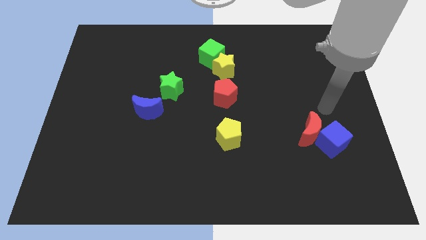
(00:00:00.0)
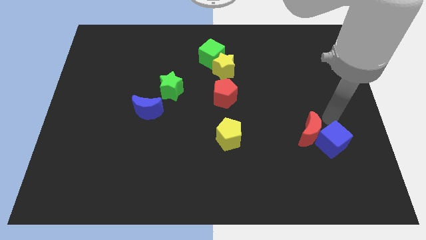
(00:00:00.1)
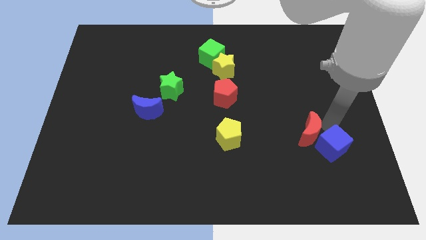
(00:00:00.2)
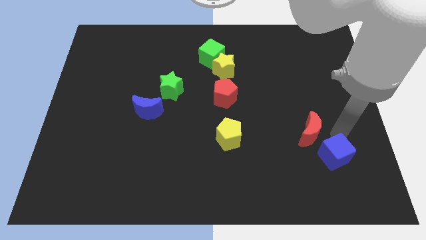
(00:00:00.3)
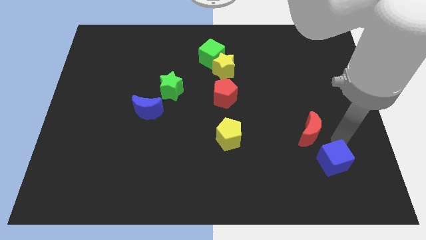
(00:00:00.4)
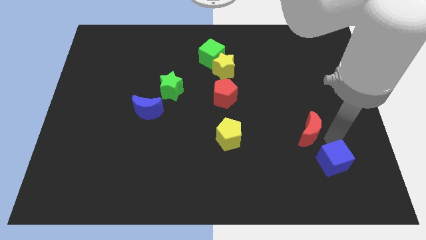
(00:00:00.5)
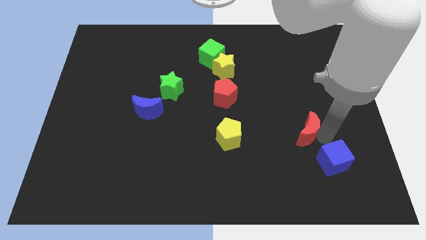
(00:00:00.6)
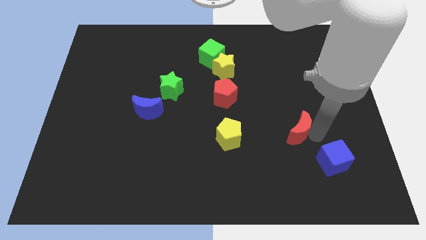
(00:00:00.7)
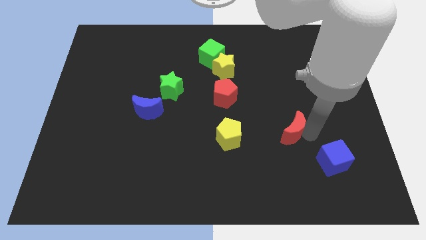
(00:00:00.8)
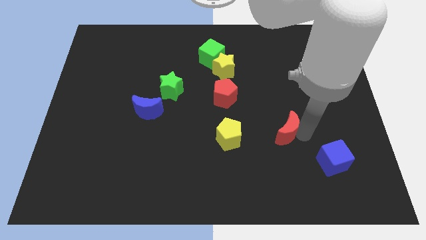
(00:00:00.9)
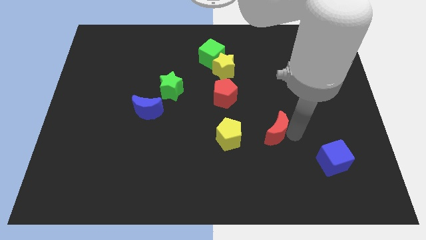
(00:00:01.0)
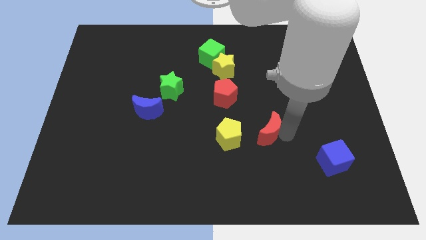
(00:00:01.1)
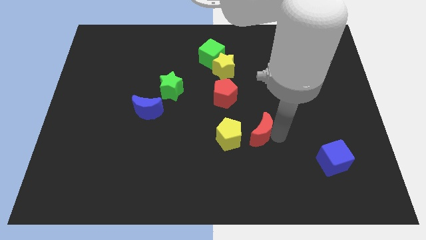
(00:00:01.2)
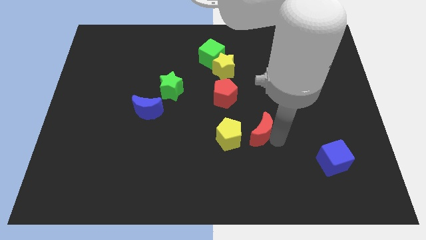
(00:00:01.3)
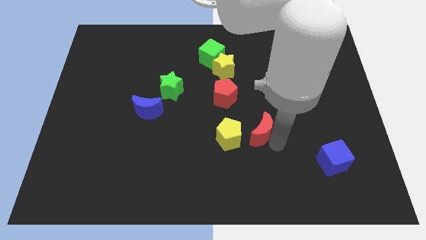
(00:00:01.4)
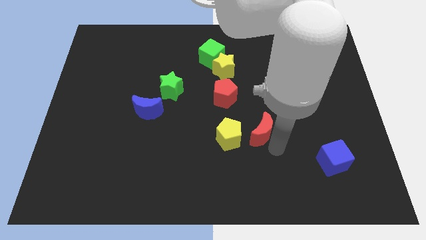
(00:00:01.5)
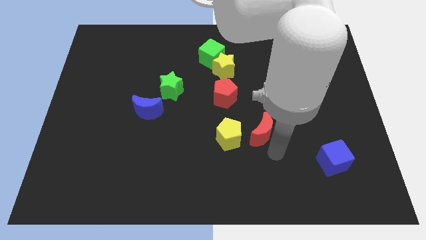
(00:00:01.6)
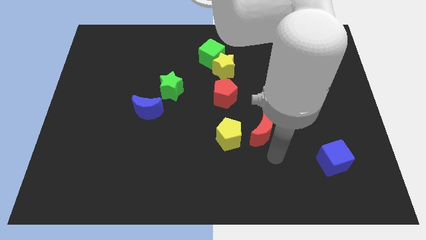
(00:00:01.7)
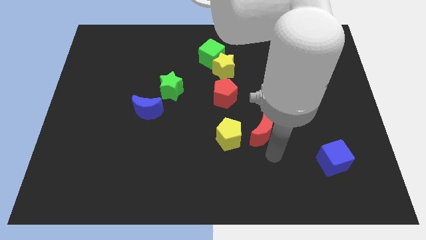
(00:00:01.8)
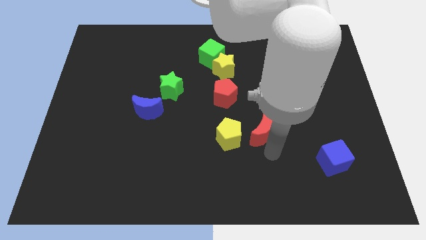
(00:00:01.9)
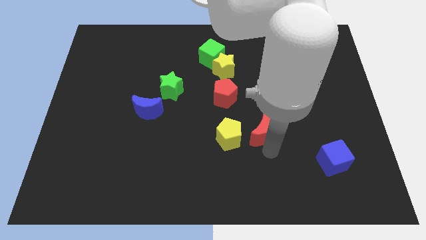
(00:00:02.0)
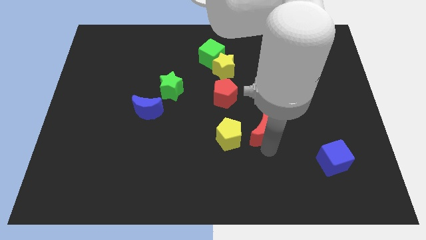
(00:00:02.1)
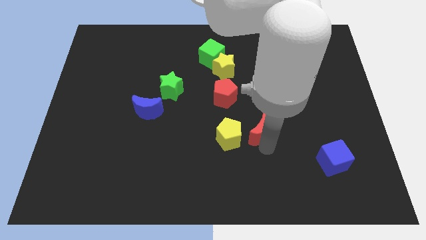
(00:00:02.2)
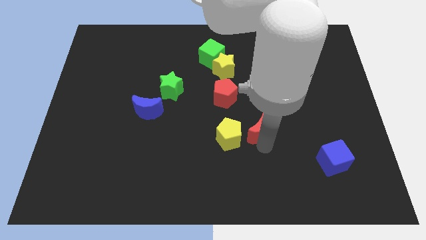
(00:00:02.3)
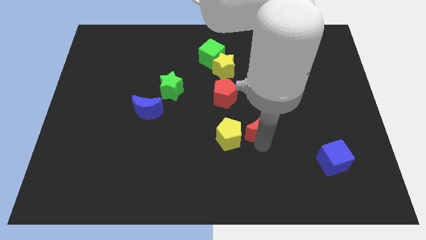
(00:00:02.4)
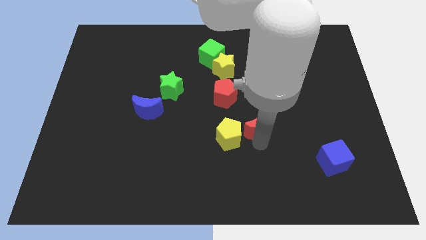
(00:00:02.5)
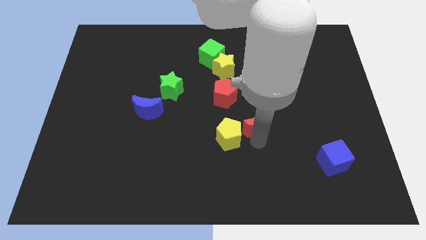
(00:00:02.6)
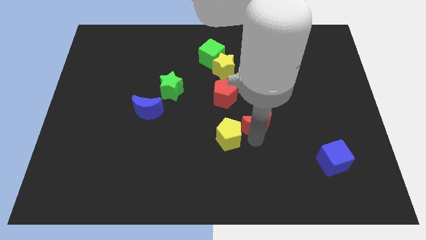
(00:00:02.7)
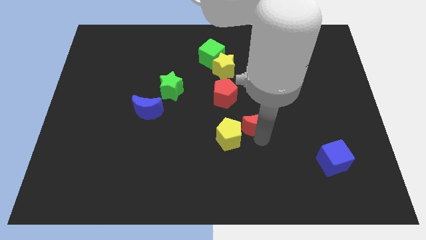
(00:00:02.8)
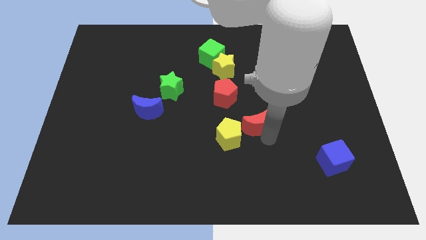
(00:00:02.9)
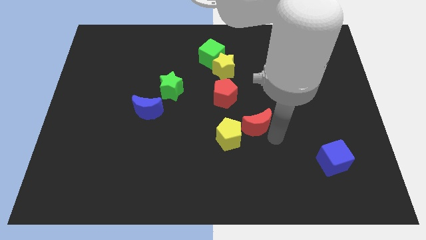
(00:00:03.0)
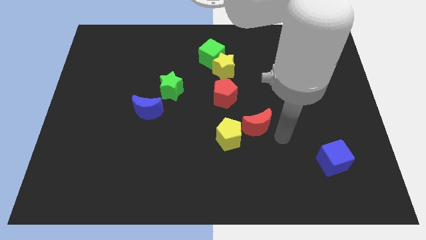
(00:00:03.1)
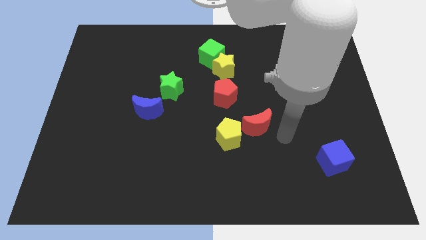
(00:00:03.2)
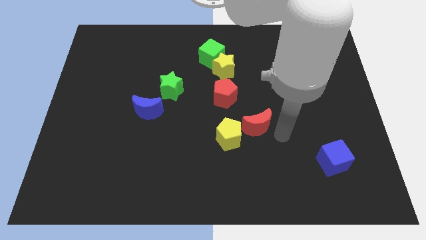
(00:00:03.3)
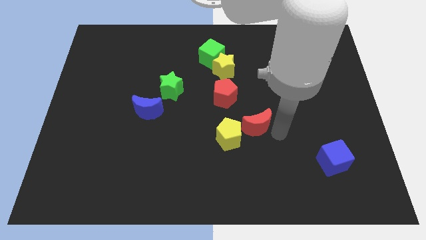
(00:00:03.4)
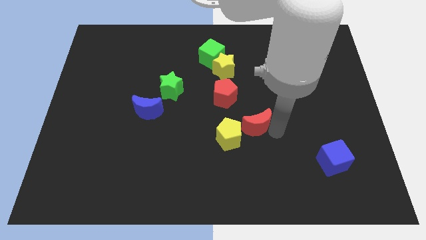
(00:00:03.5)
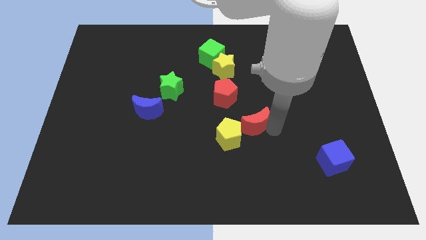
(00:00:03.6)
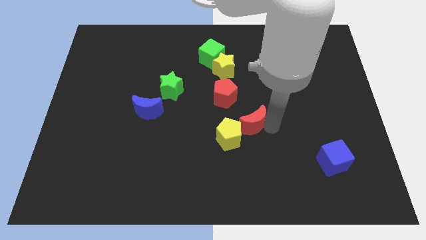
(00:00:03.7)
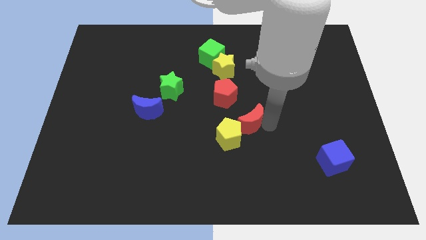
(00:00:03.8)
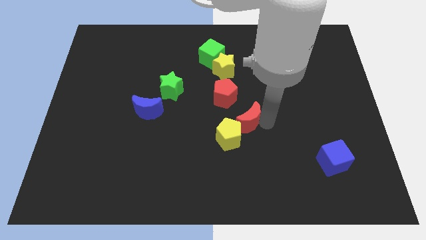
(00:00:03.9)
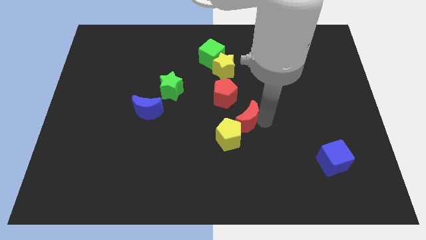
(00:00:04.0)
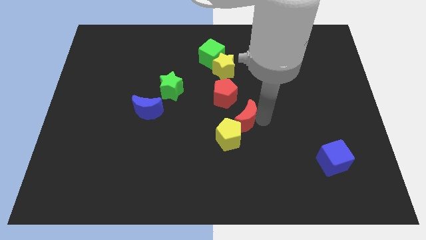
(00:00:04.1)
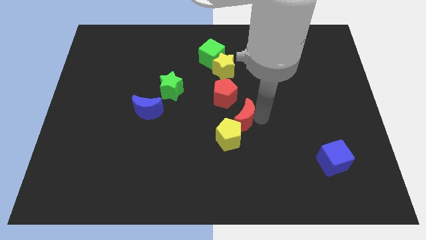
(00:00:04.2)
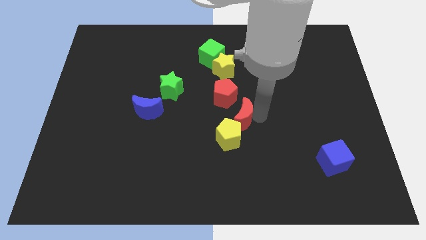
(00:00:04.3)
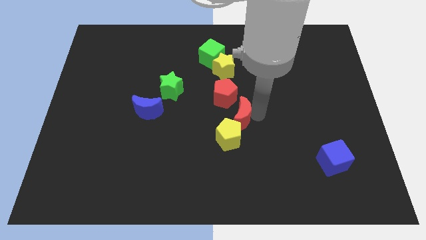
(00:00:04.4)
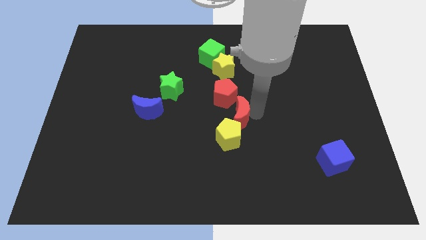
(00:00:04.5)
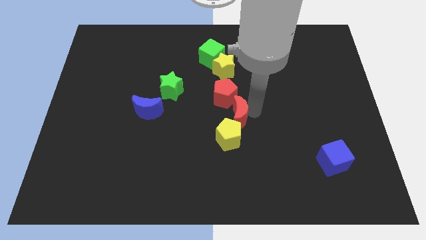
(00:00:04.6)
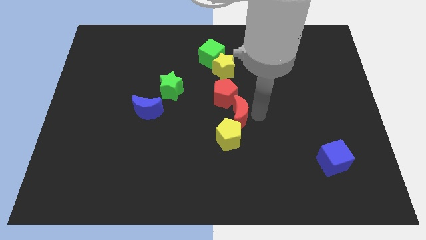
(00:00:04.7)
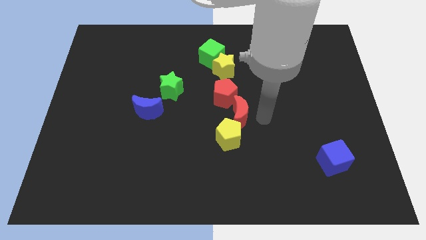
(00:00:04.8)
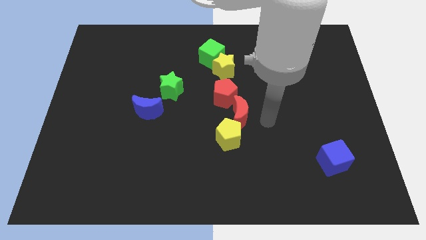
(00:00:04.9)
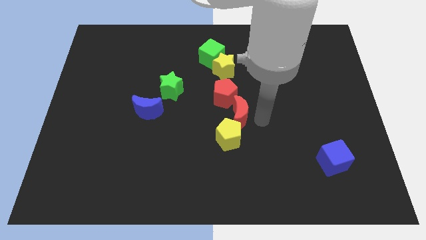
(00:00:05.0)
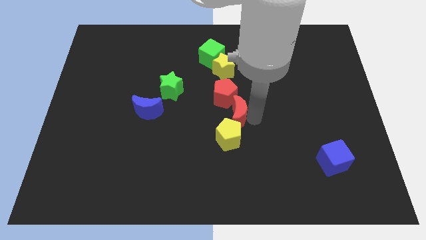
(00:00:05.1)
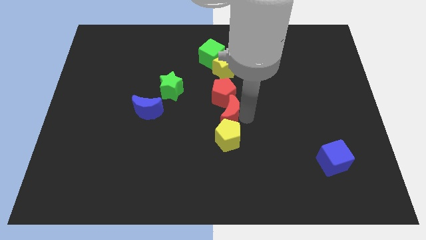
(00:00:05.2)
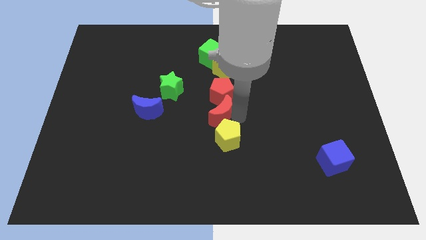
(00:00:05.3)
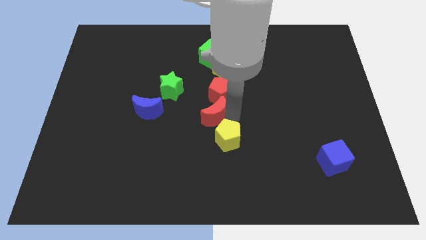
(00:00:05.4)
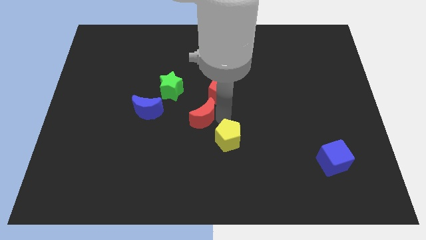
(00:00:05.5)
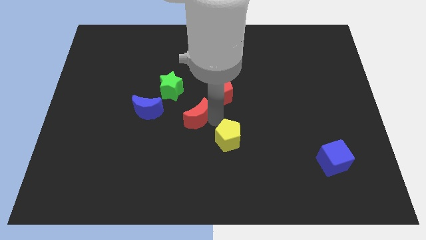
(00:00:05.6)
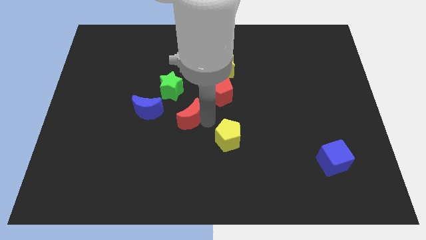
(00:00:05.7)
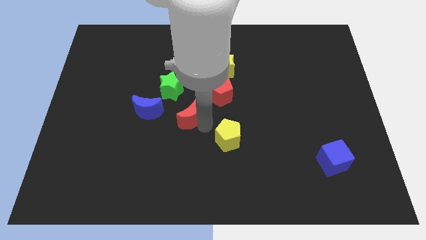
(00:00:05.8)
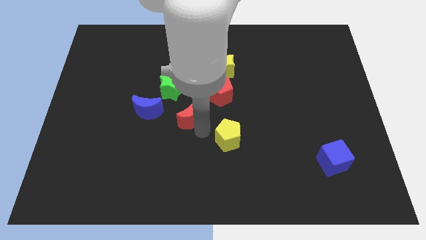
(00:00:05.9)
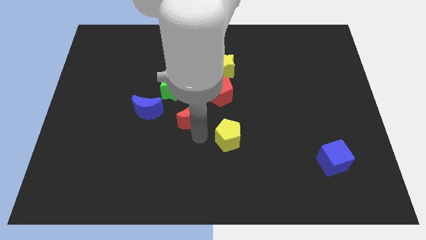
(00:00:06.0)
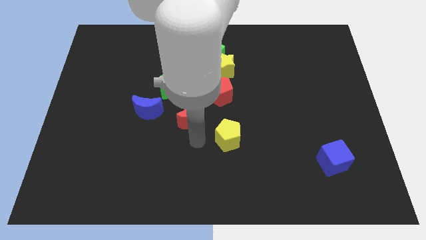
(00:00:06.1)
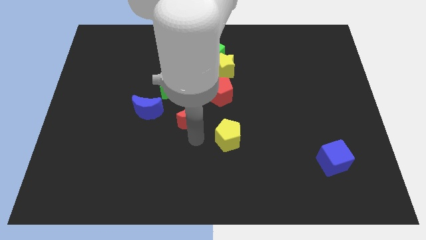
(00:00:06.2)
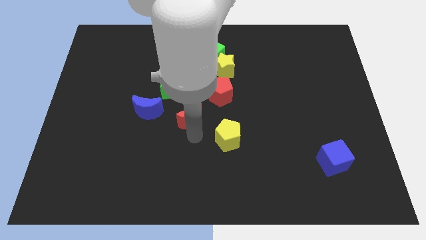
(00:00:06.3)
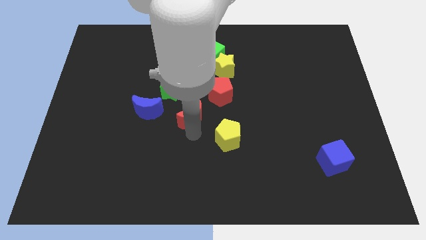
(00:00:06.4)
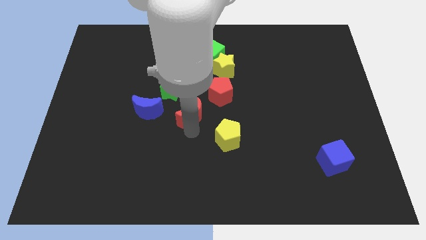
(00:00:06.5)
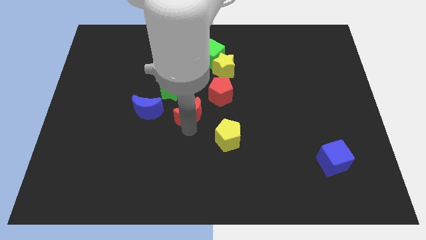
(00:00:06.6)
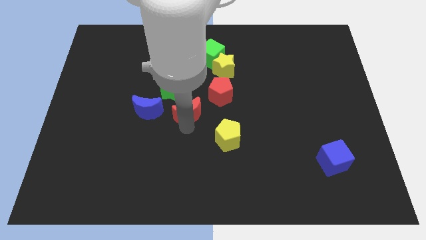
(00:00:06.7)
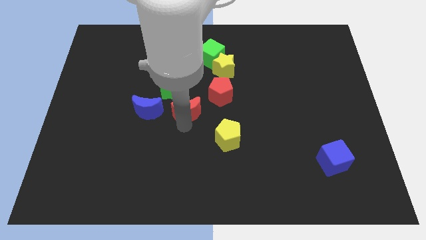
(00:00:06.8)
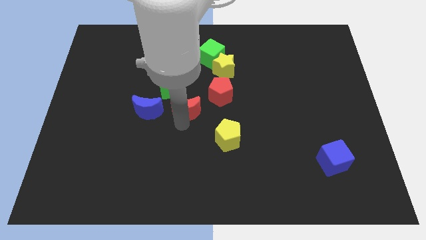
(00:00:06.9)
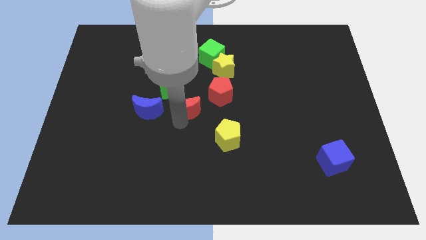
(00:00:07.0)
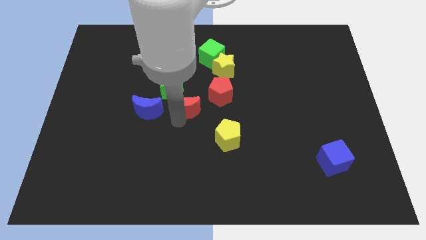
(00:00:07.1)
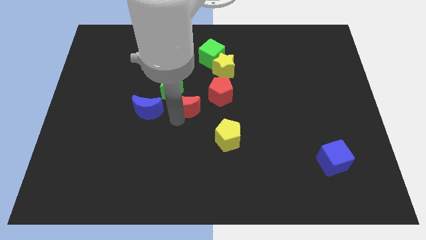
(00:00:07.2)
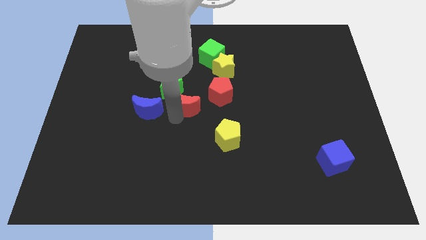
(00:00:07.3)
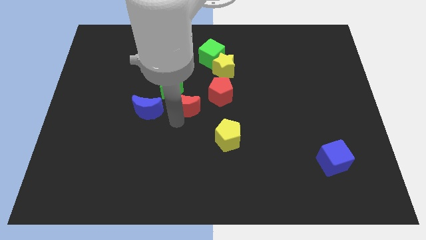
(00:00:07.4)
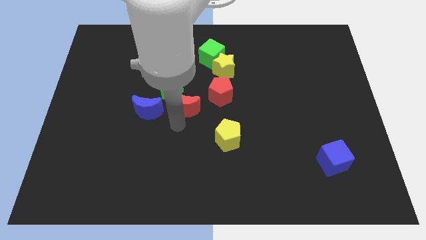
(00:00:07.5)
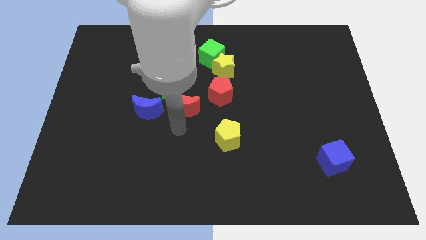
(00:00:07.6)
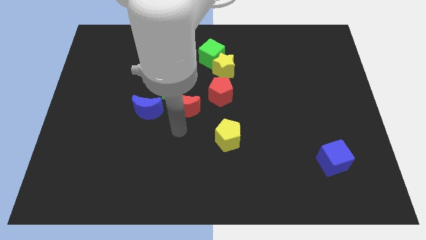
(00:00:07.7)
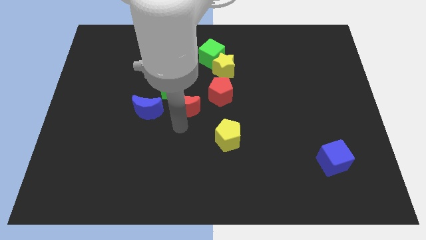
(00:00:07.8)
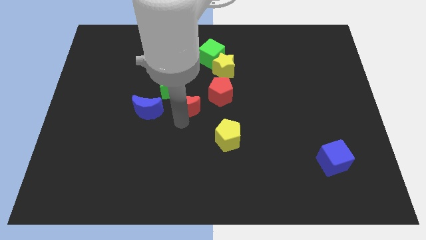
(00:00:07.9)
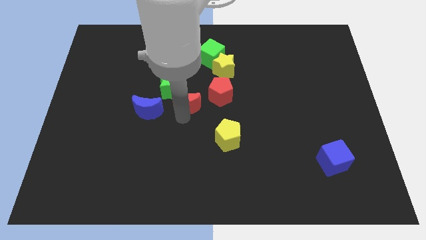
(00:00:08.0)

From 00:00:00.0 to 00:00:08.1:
move the red moon towards the green star
